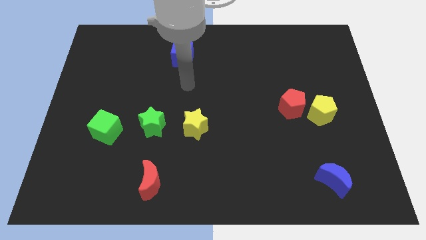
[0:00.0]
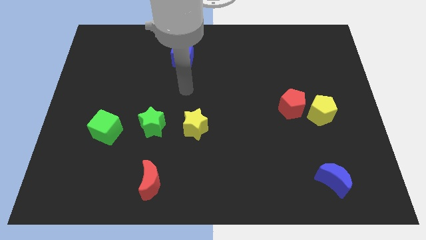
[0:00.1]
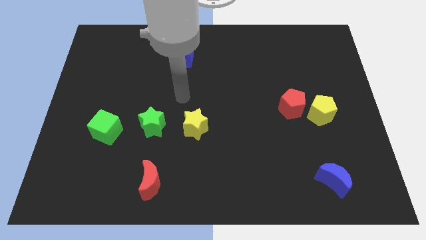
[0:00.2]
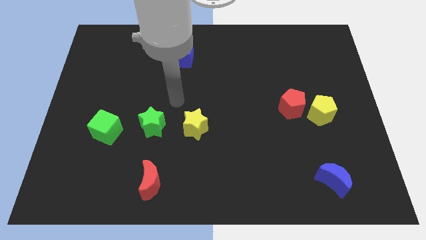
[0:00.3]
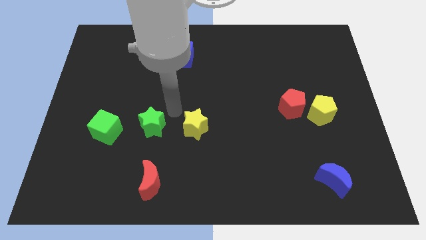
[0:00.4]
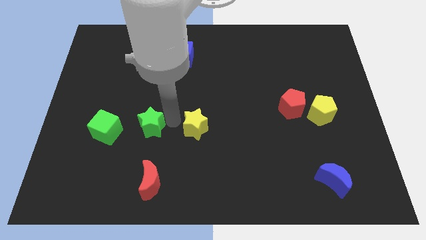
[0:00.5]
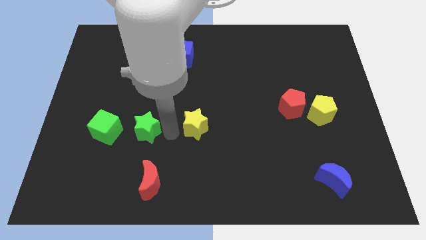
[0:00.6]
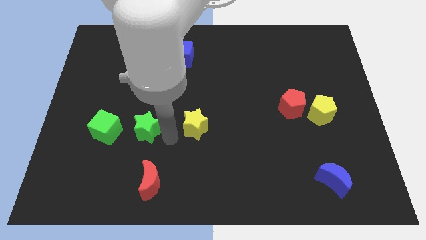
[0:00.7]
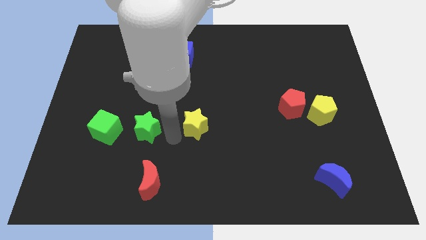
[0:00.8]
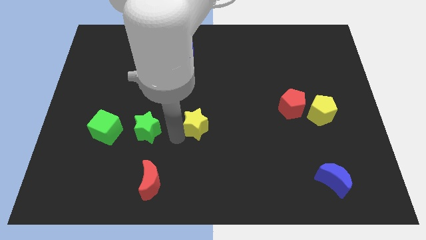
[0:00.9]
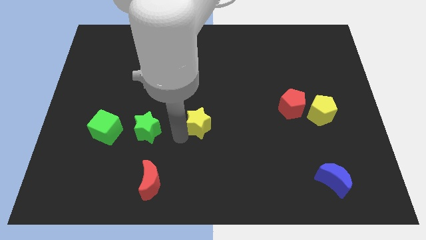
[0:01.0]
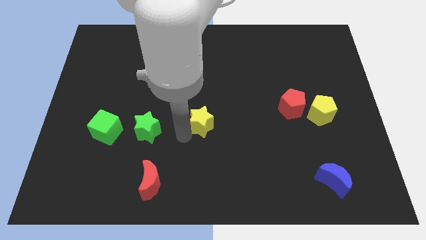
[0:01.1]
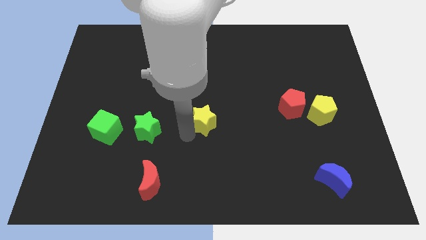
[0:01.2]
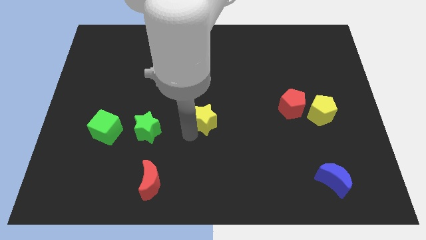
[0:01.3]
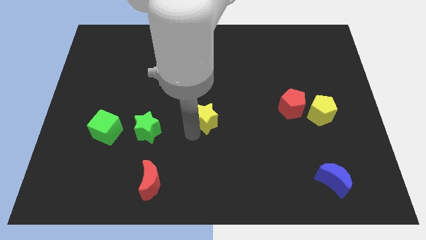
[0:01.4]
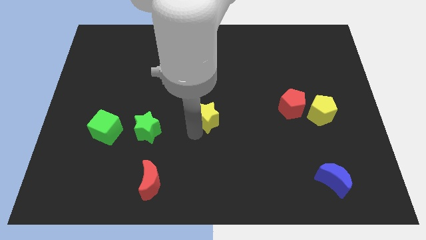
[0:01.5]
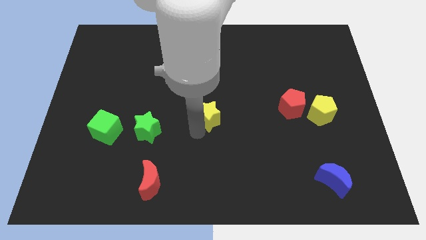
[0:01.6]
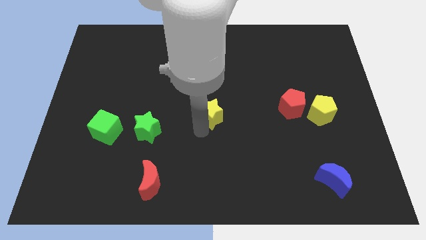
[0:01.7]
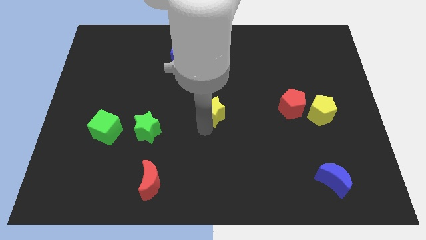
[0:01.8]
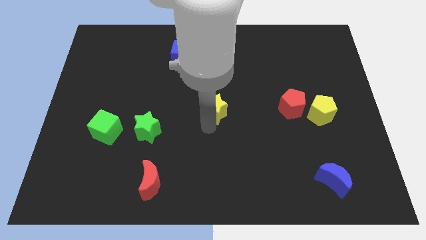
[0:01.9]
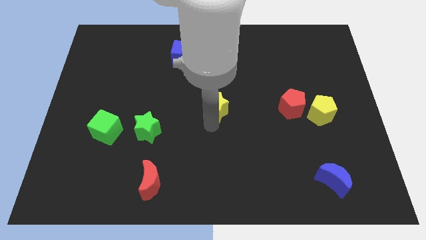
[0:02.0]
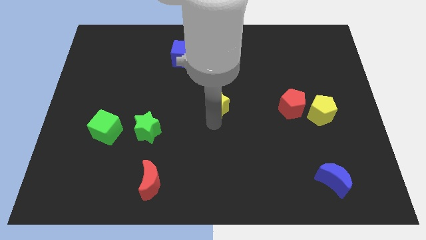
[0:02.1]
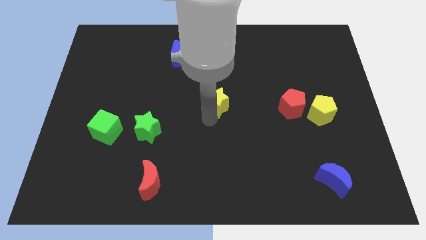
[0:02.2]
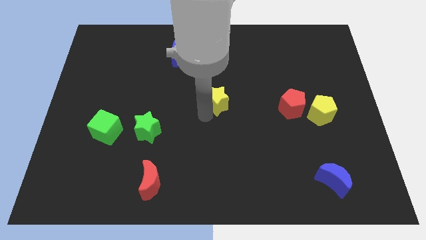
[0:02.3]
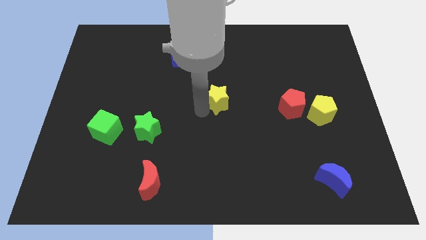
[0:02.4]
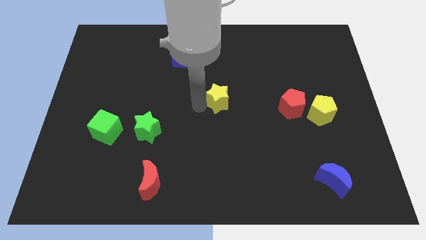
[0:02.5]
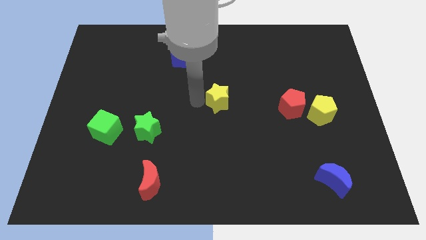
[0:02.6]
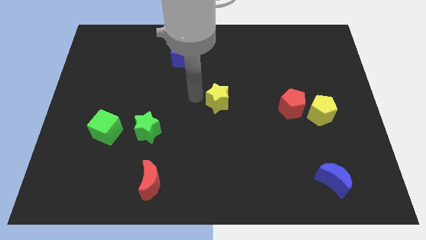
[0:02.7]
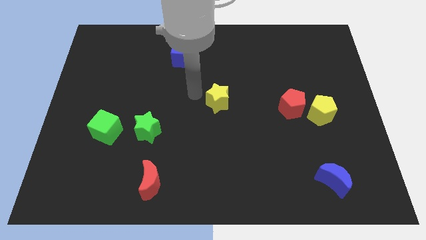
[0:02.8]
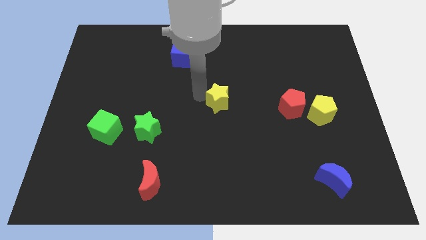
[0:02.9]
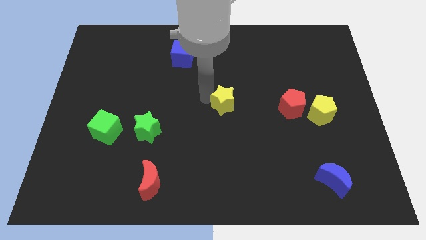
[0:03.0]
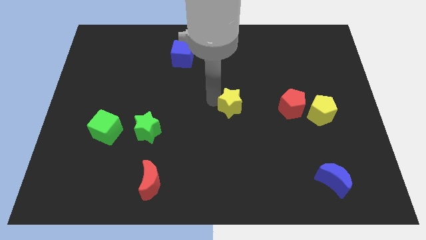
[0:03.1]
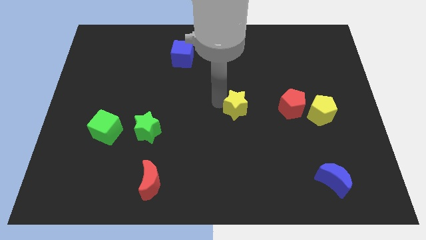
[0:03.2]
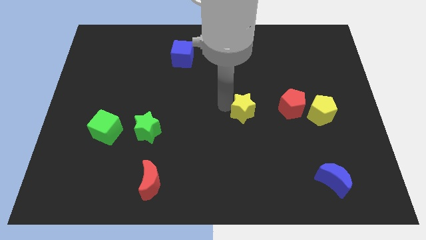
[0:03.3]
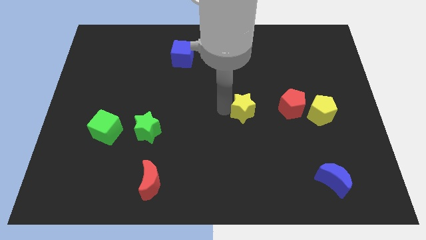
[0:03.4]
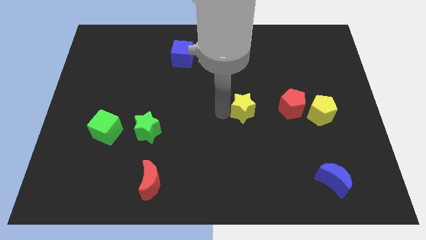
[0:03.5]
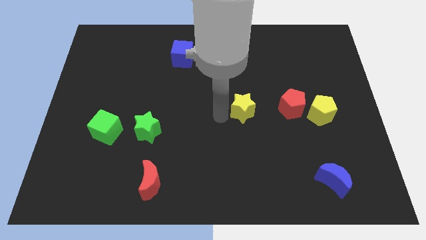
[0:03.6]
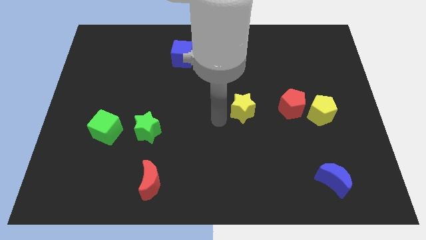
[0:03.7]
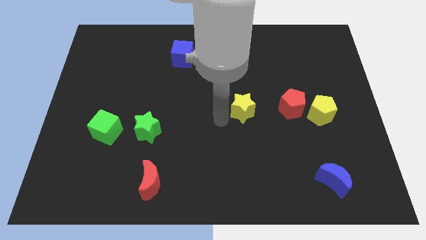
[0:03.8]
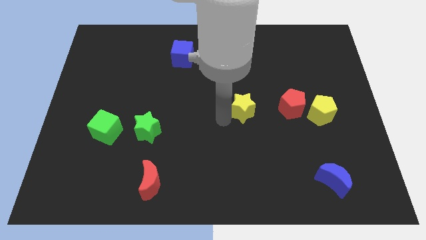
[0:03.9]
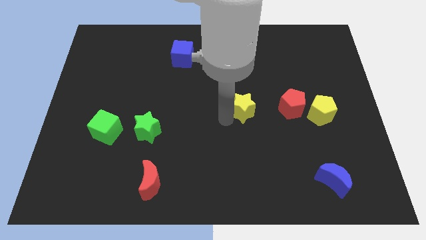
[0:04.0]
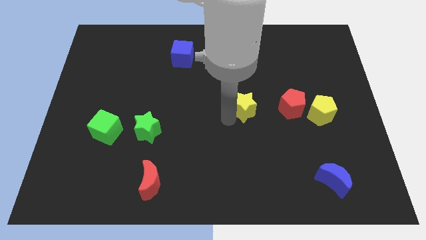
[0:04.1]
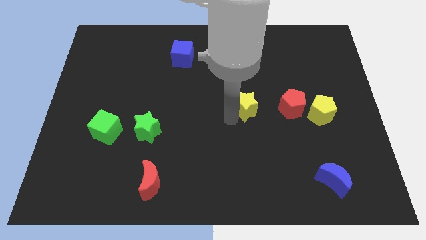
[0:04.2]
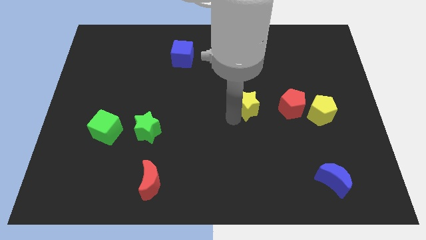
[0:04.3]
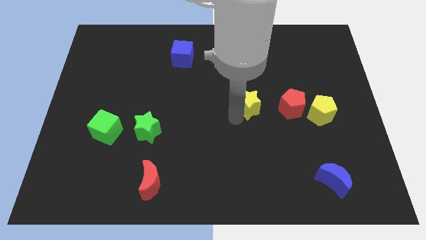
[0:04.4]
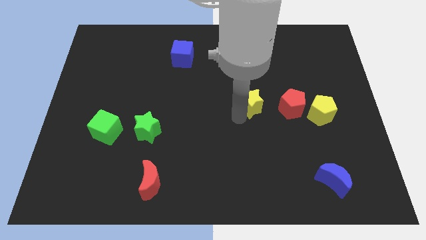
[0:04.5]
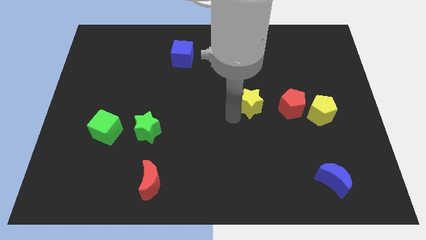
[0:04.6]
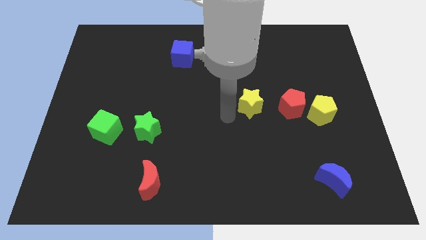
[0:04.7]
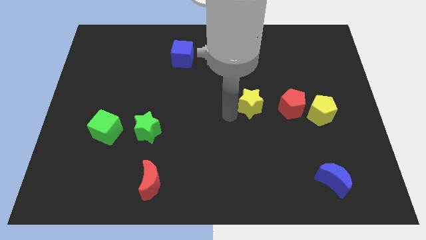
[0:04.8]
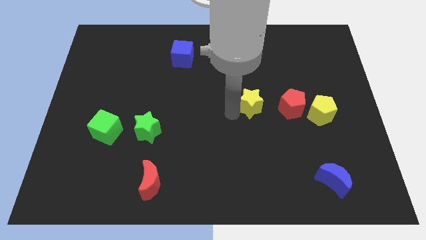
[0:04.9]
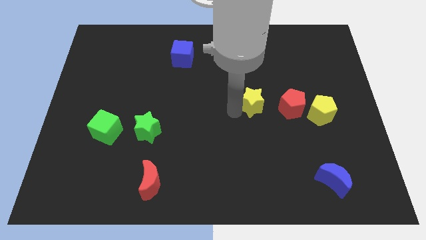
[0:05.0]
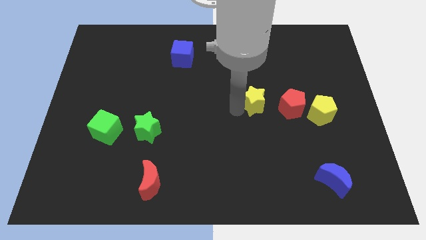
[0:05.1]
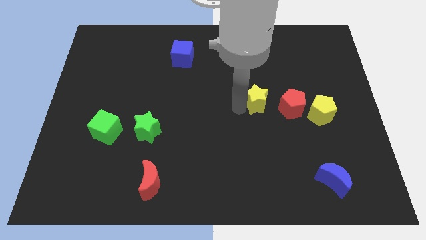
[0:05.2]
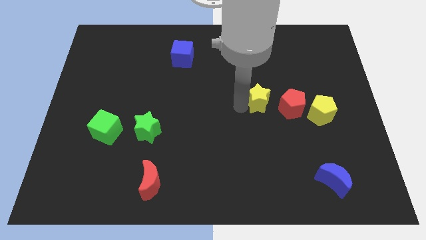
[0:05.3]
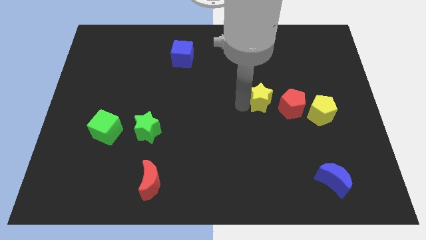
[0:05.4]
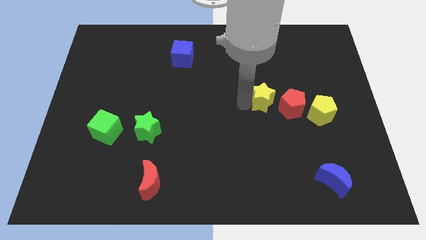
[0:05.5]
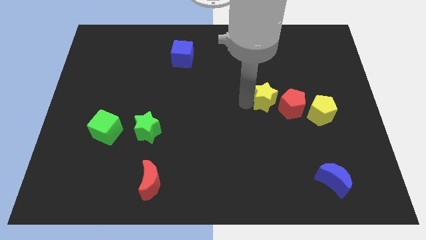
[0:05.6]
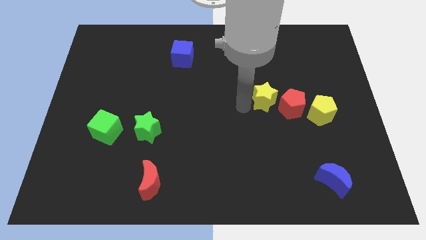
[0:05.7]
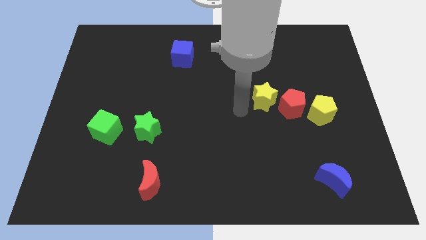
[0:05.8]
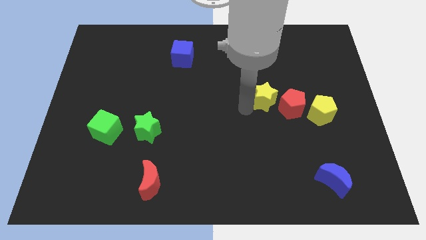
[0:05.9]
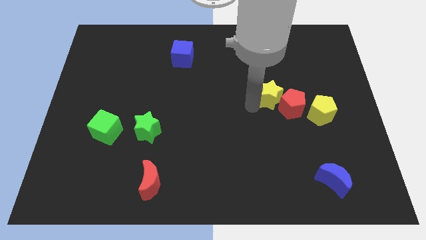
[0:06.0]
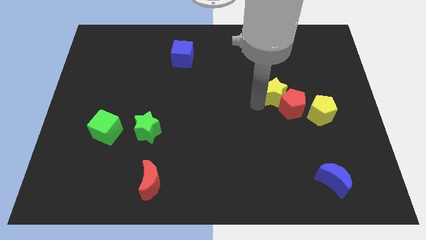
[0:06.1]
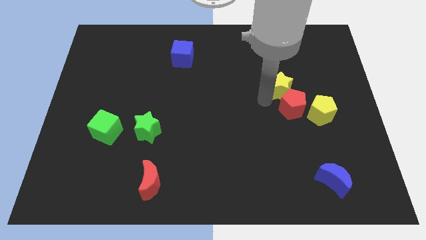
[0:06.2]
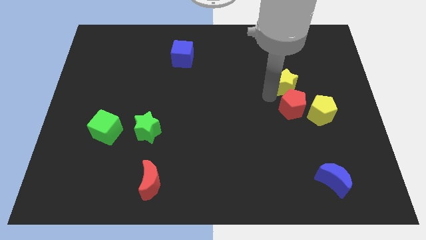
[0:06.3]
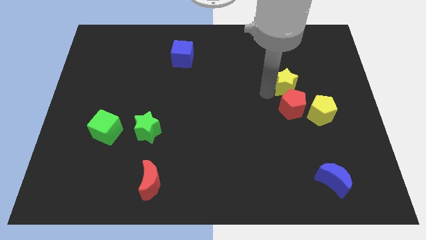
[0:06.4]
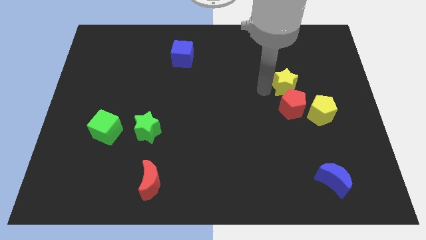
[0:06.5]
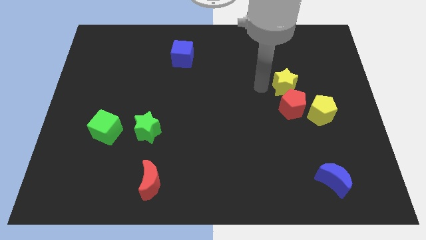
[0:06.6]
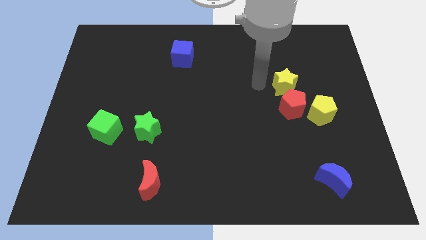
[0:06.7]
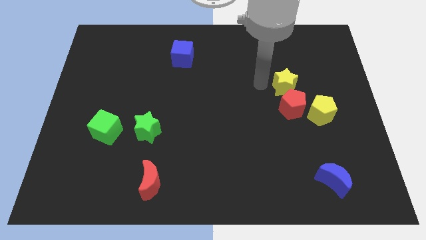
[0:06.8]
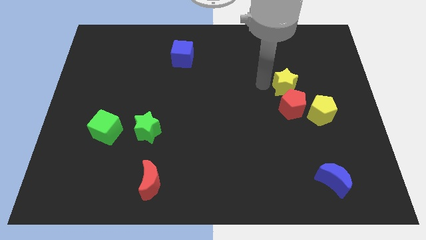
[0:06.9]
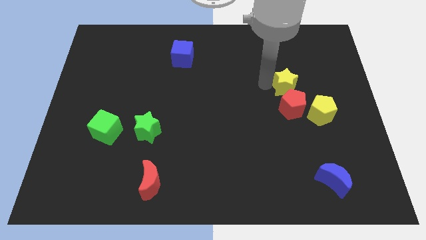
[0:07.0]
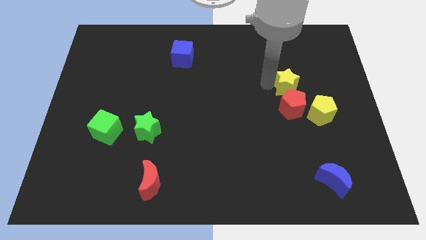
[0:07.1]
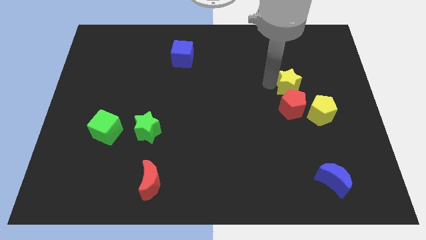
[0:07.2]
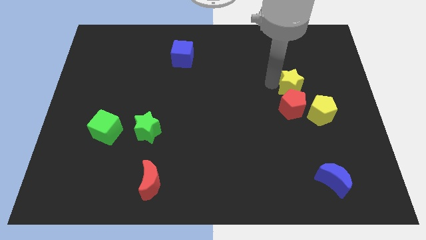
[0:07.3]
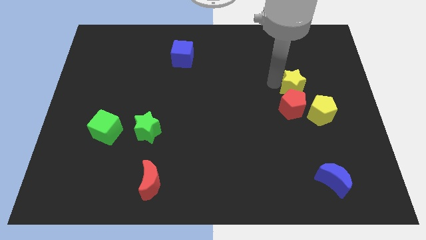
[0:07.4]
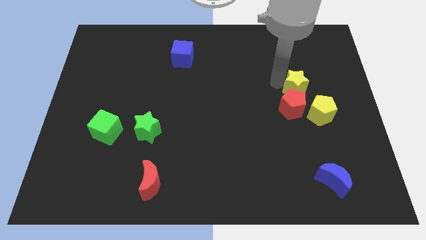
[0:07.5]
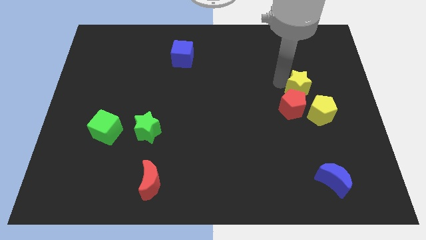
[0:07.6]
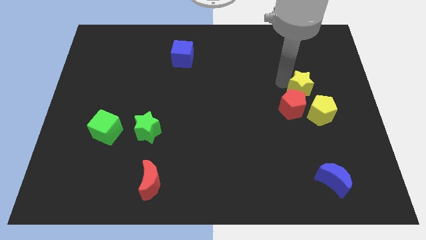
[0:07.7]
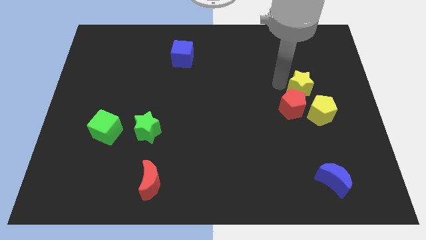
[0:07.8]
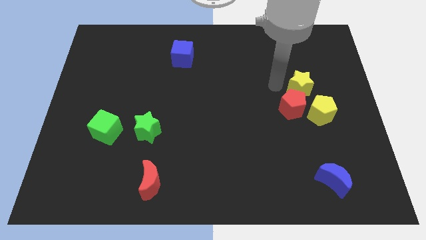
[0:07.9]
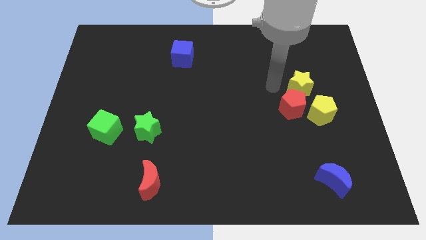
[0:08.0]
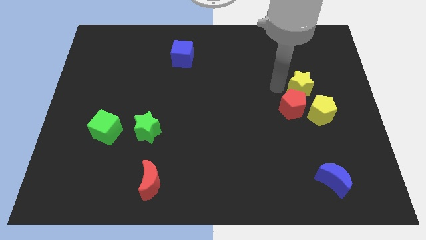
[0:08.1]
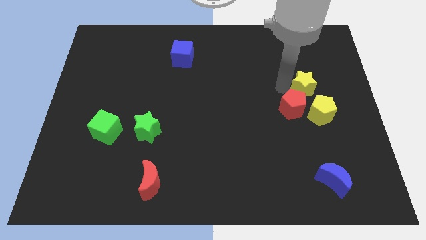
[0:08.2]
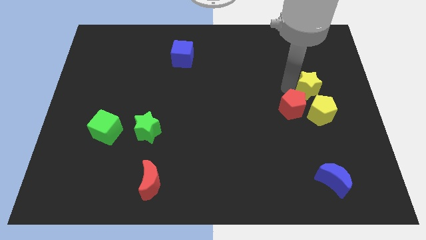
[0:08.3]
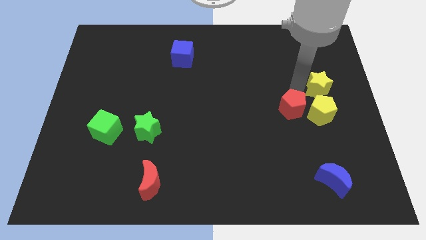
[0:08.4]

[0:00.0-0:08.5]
push the yellow star to the center right
